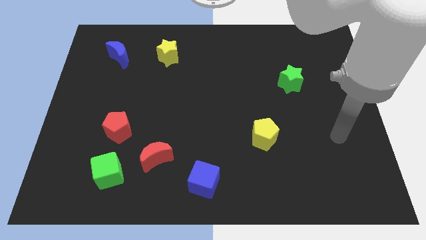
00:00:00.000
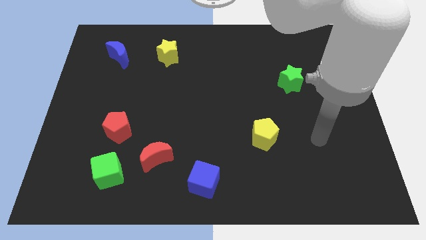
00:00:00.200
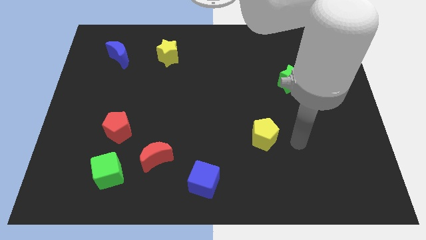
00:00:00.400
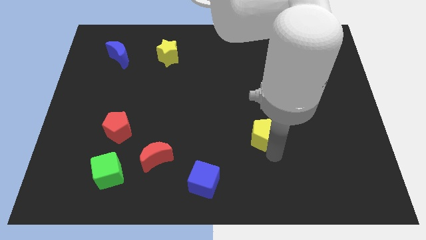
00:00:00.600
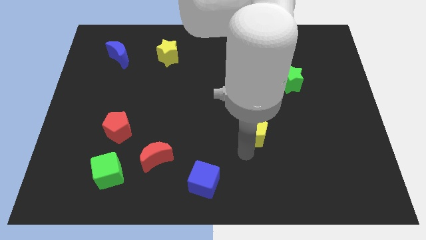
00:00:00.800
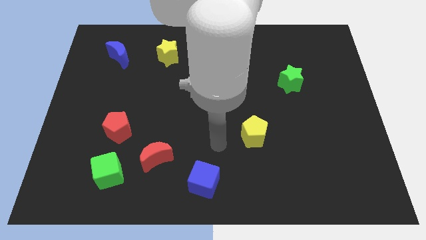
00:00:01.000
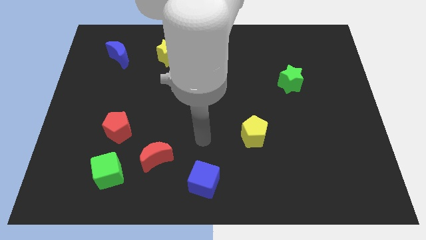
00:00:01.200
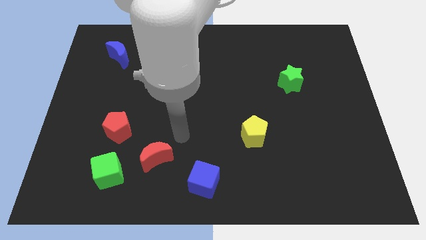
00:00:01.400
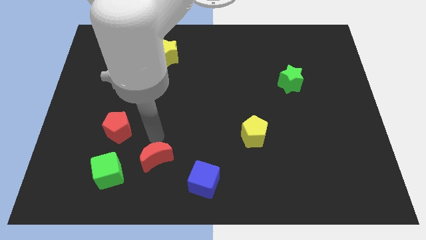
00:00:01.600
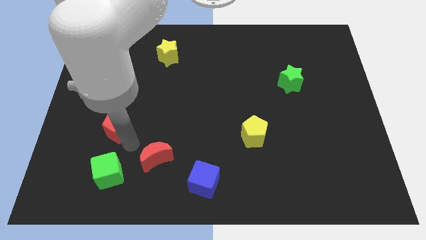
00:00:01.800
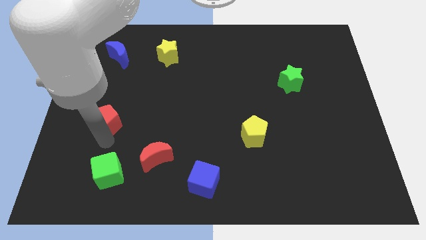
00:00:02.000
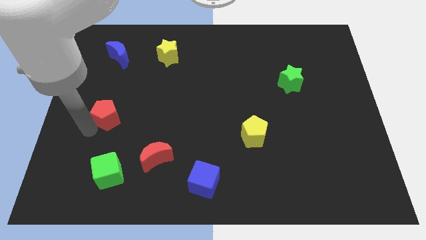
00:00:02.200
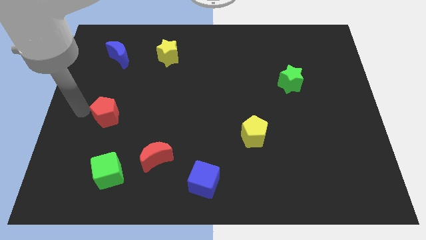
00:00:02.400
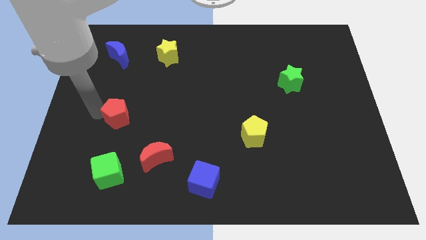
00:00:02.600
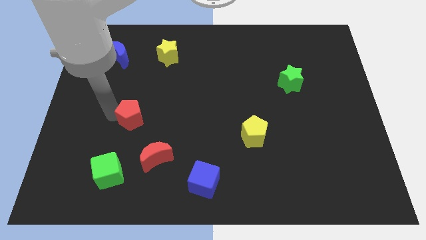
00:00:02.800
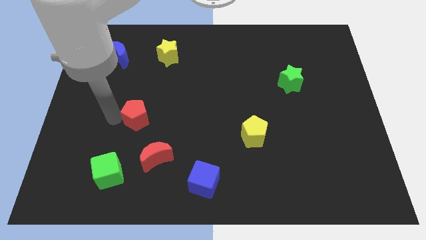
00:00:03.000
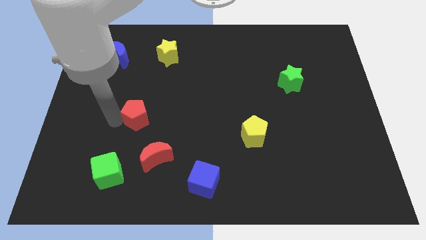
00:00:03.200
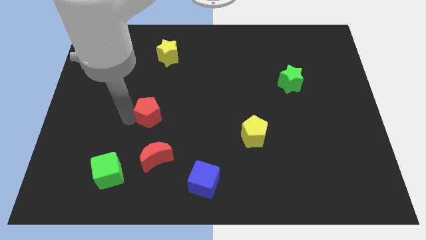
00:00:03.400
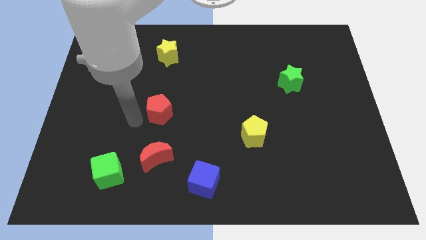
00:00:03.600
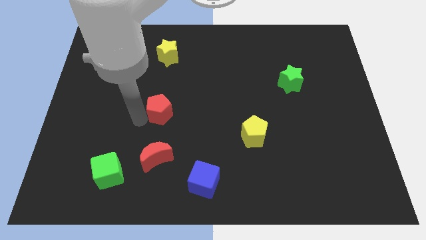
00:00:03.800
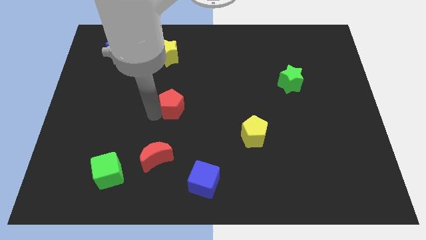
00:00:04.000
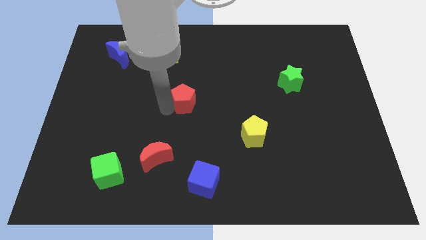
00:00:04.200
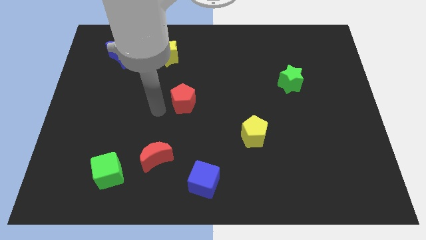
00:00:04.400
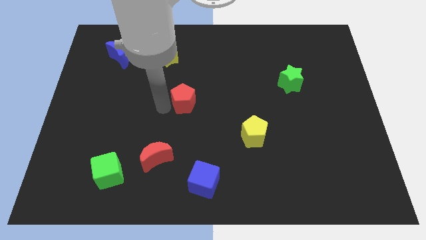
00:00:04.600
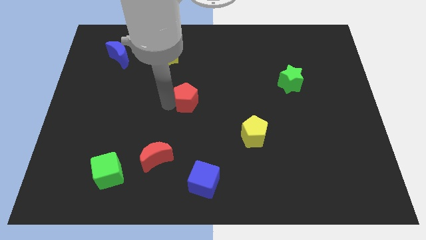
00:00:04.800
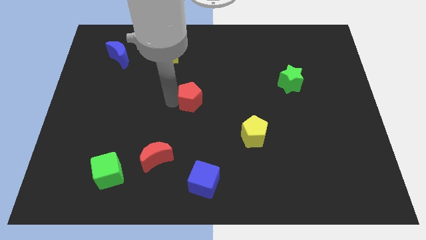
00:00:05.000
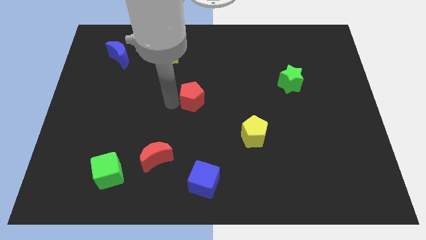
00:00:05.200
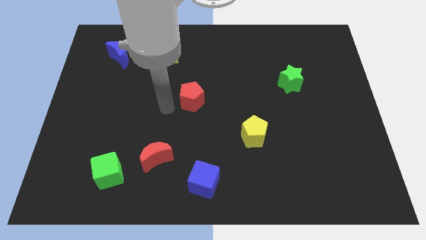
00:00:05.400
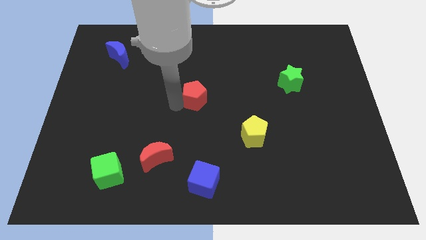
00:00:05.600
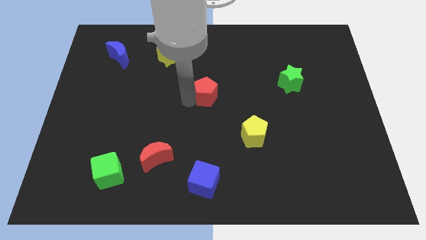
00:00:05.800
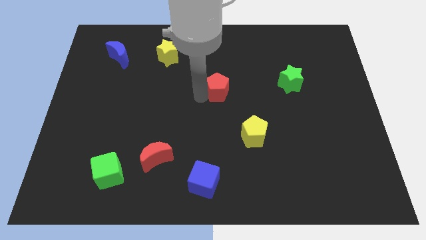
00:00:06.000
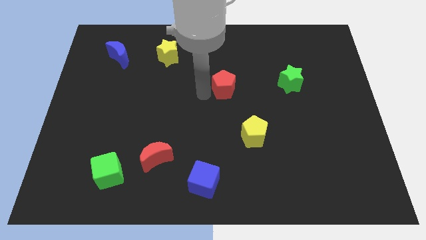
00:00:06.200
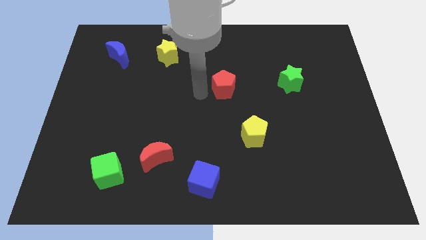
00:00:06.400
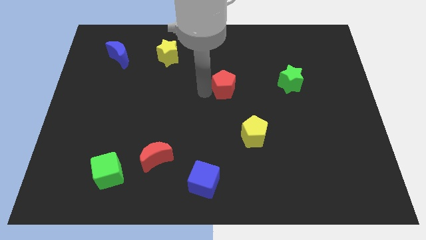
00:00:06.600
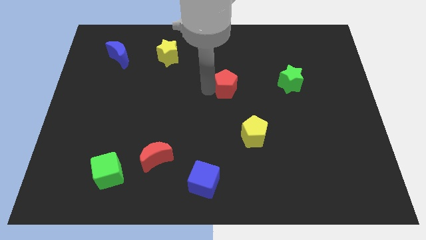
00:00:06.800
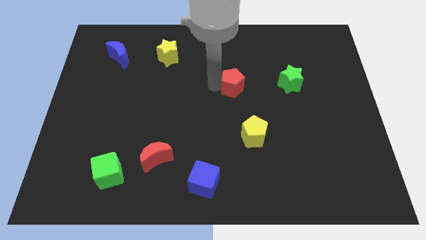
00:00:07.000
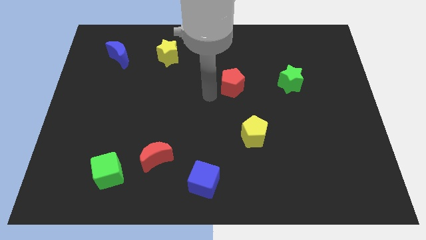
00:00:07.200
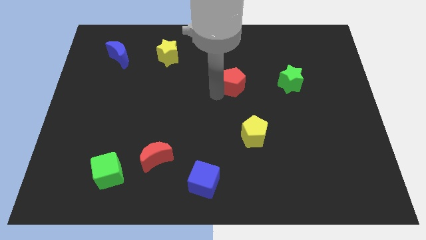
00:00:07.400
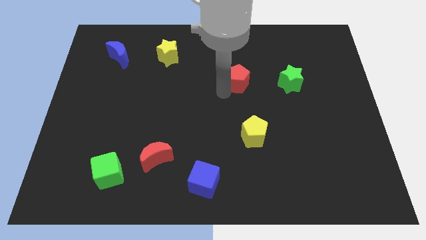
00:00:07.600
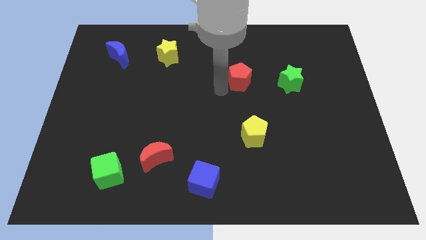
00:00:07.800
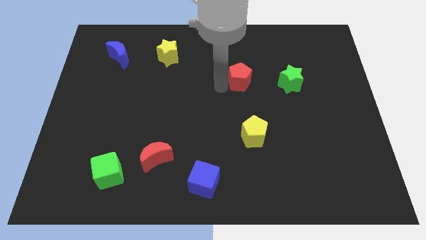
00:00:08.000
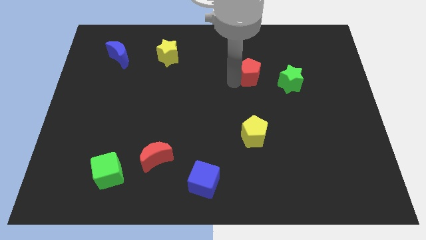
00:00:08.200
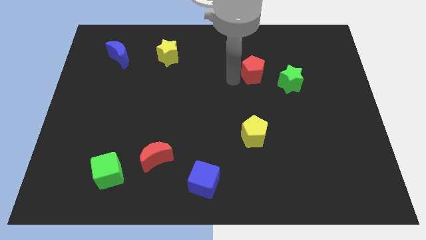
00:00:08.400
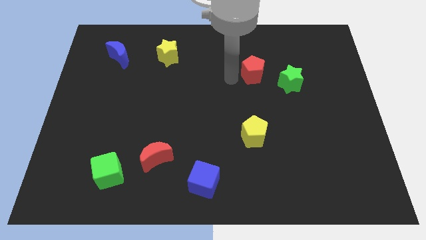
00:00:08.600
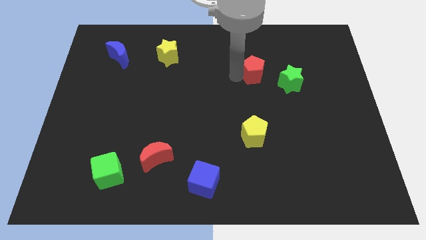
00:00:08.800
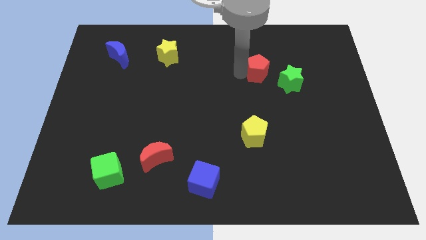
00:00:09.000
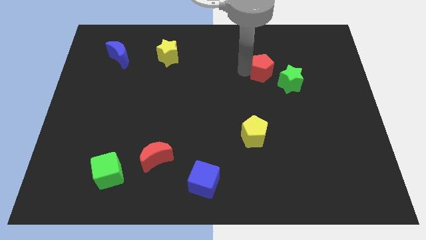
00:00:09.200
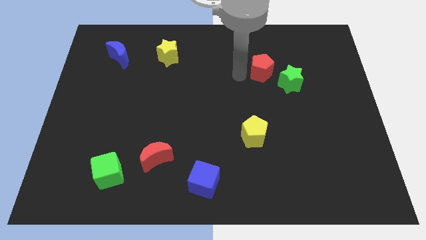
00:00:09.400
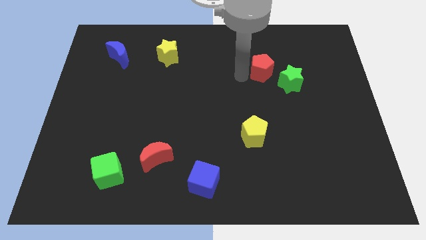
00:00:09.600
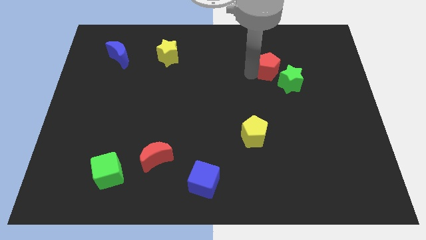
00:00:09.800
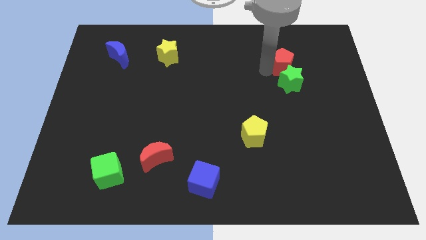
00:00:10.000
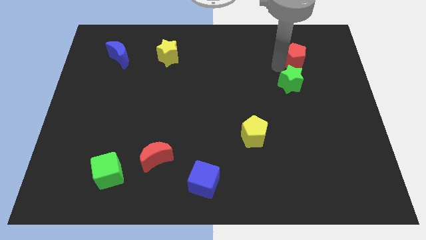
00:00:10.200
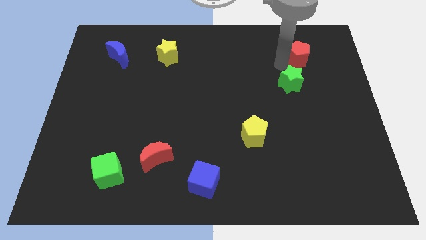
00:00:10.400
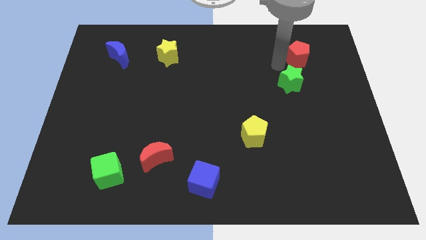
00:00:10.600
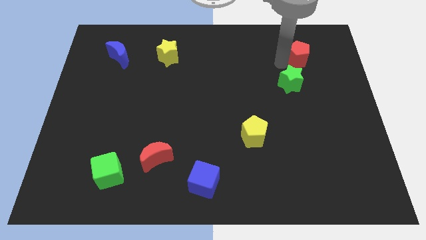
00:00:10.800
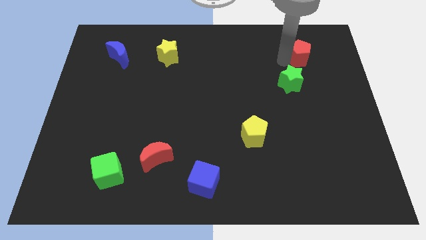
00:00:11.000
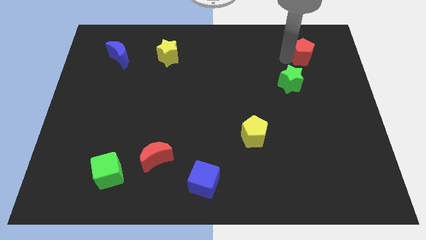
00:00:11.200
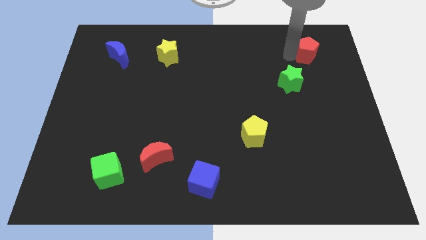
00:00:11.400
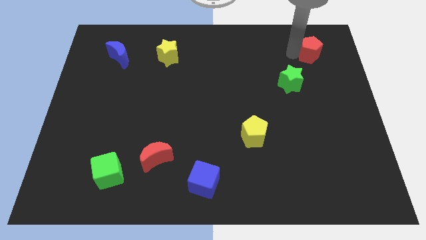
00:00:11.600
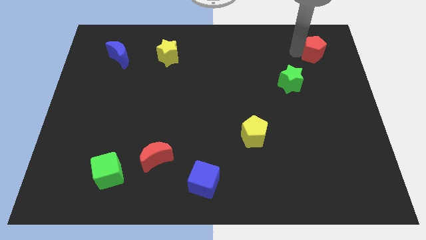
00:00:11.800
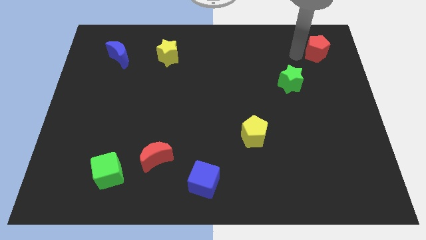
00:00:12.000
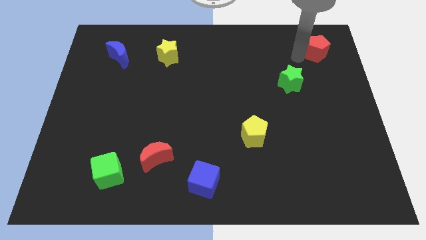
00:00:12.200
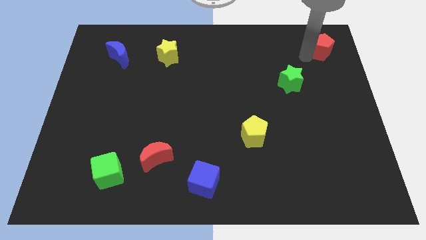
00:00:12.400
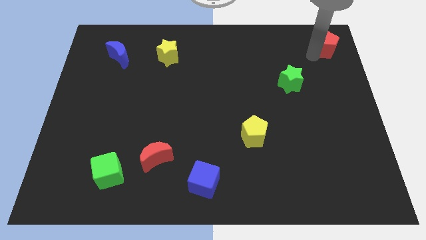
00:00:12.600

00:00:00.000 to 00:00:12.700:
put the red pentagon to the top right corner

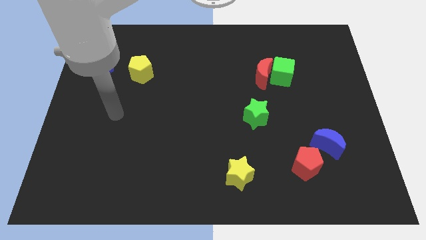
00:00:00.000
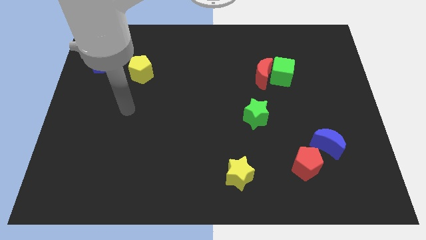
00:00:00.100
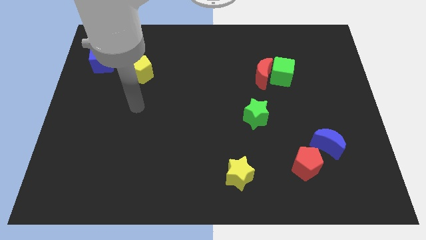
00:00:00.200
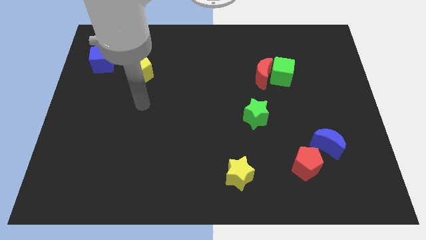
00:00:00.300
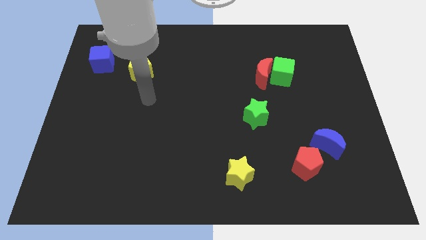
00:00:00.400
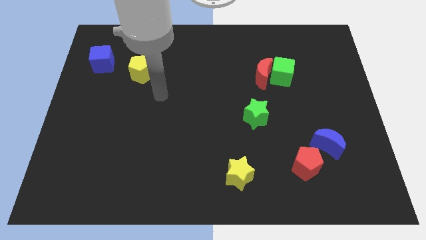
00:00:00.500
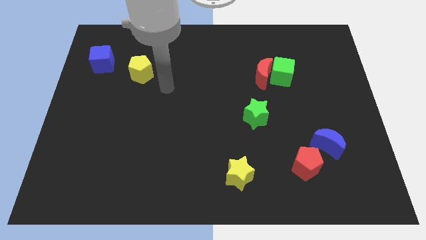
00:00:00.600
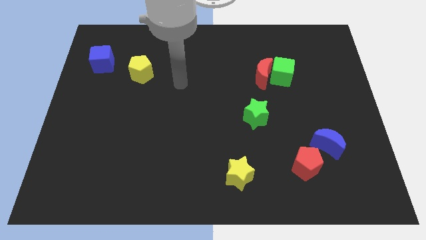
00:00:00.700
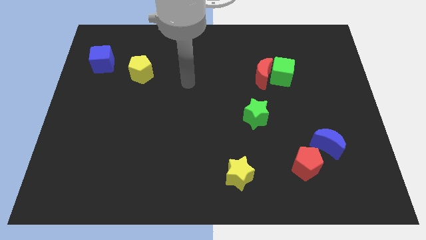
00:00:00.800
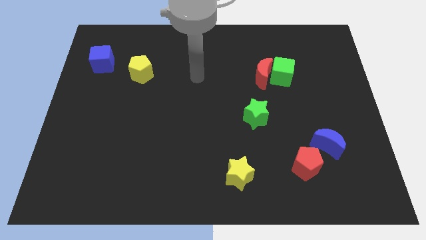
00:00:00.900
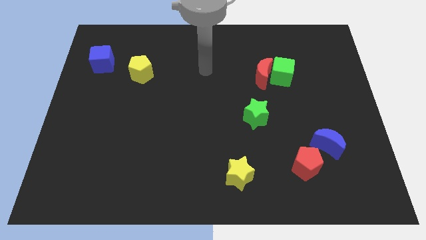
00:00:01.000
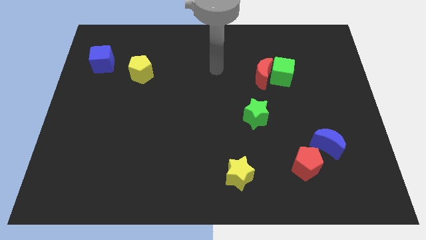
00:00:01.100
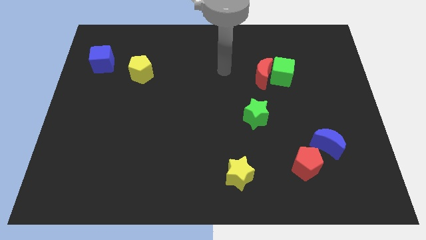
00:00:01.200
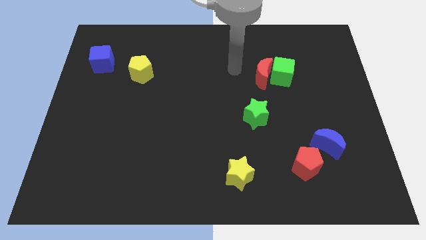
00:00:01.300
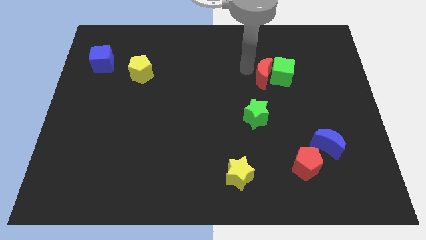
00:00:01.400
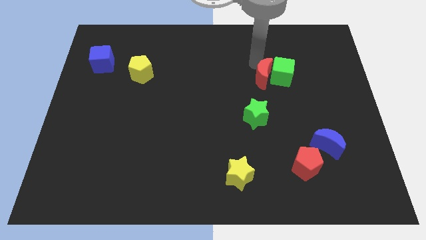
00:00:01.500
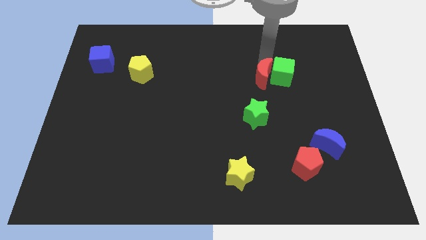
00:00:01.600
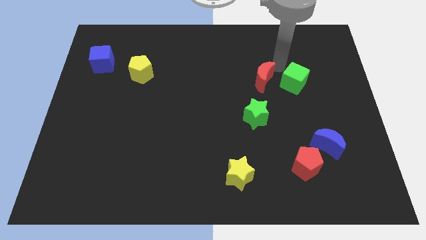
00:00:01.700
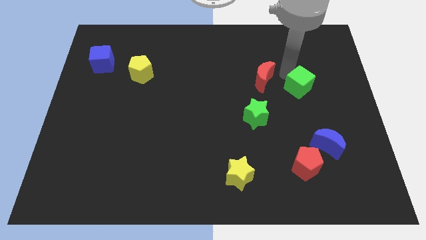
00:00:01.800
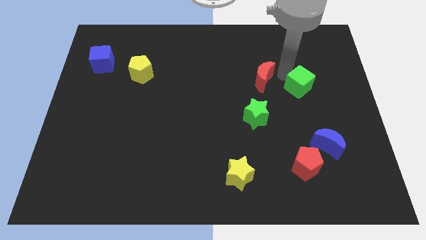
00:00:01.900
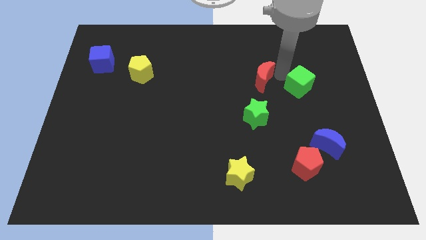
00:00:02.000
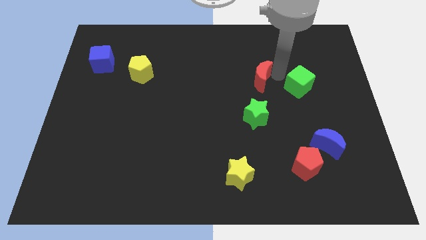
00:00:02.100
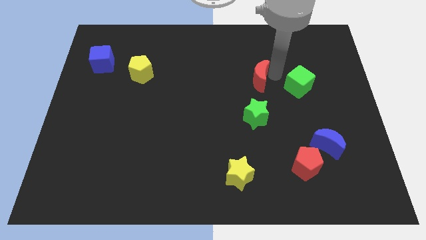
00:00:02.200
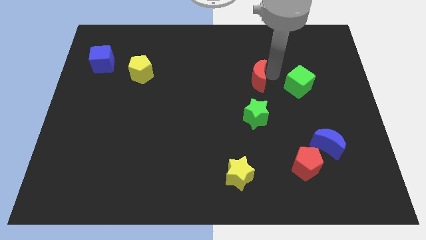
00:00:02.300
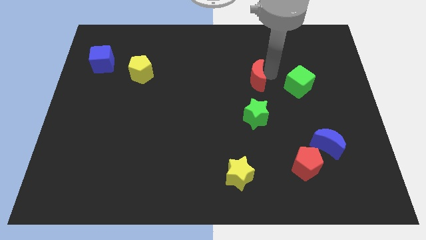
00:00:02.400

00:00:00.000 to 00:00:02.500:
push the red moon to the center of the board
